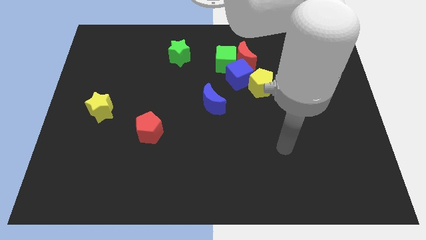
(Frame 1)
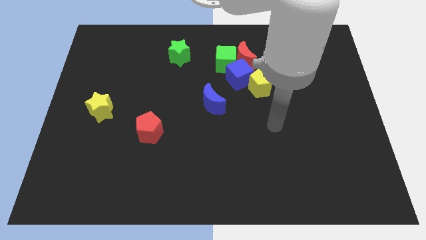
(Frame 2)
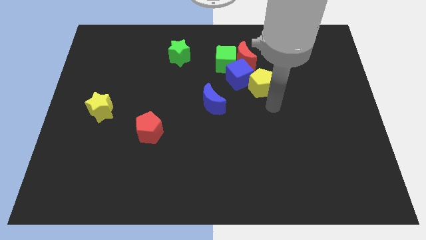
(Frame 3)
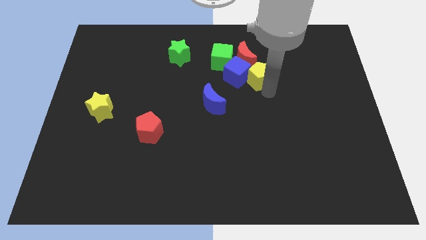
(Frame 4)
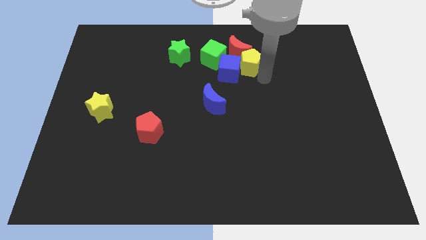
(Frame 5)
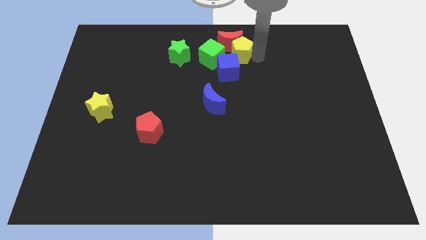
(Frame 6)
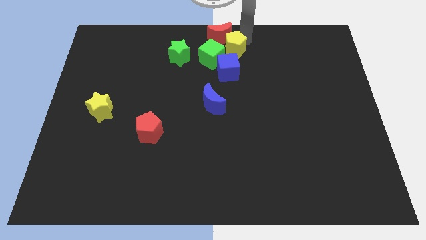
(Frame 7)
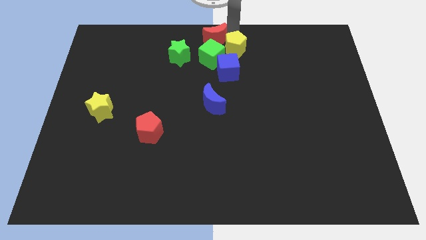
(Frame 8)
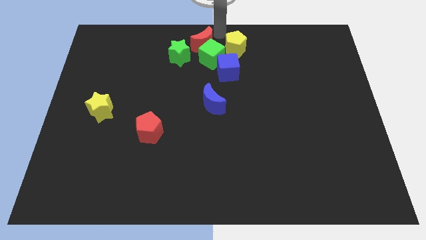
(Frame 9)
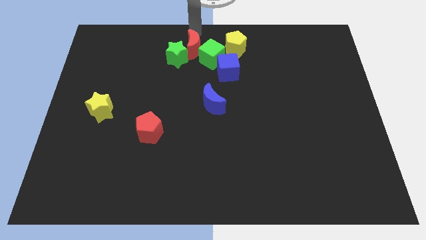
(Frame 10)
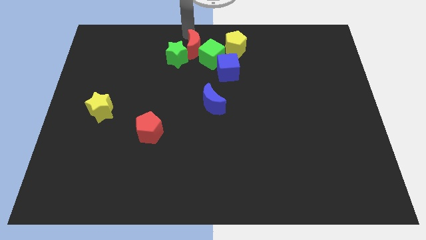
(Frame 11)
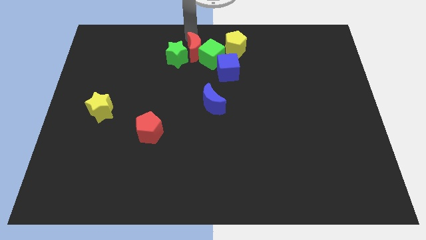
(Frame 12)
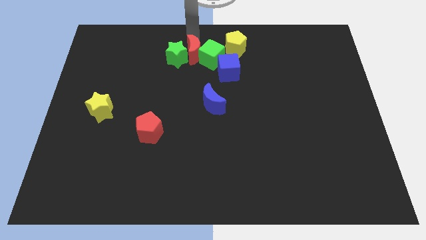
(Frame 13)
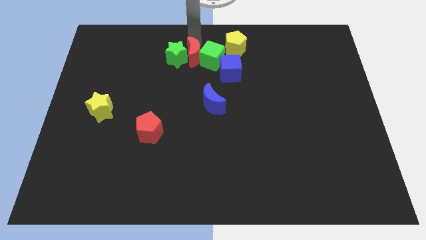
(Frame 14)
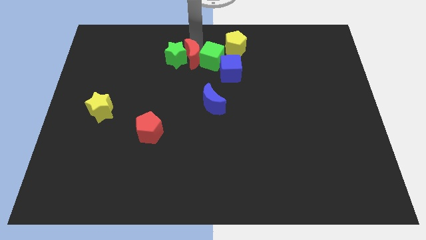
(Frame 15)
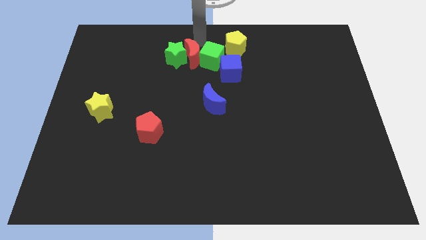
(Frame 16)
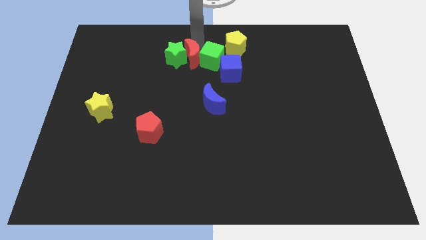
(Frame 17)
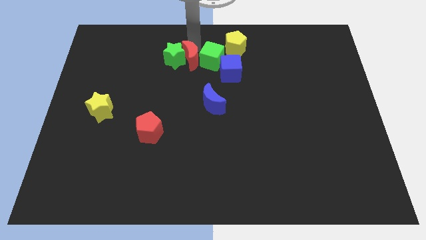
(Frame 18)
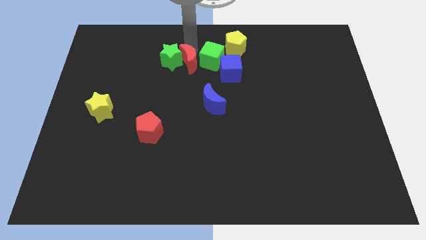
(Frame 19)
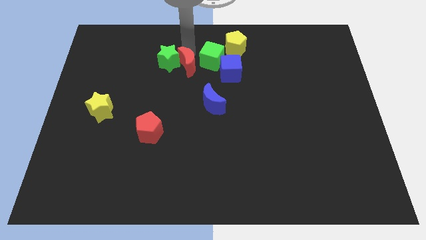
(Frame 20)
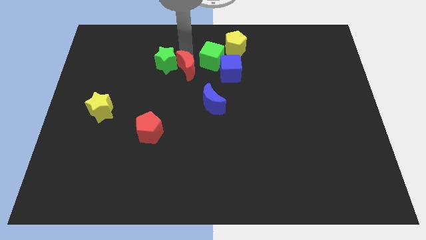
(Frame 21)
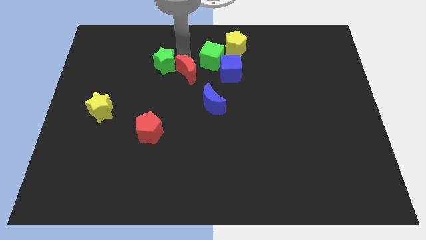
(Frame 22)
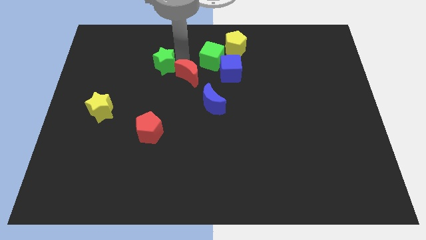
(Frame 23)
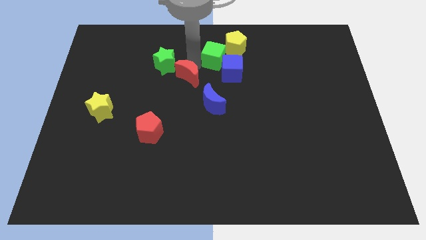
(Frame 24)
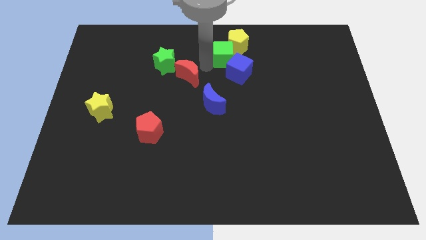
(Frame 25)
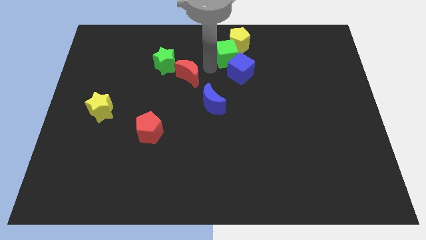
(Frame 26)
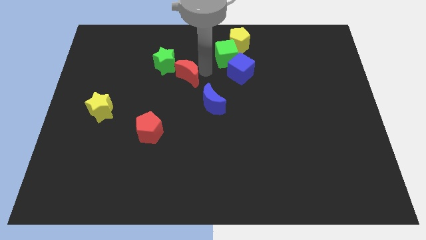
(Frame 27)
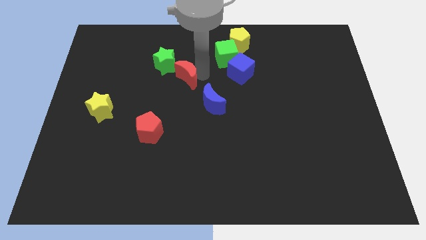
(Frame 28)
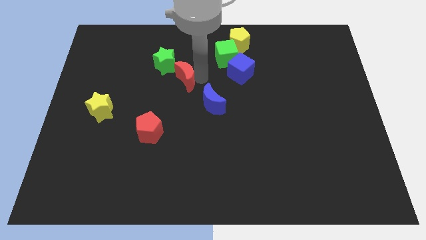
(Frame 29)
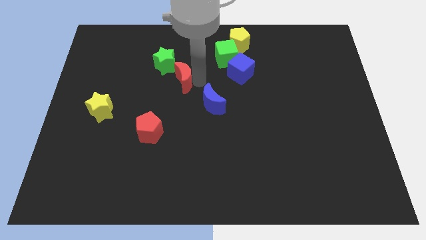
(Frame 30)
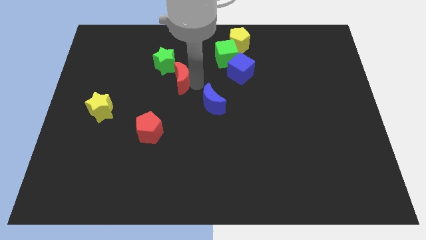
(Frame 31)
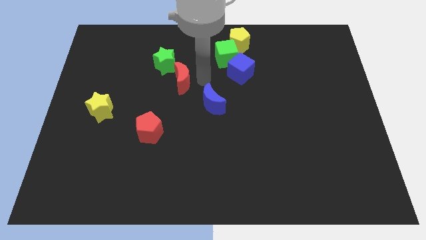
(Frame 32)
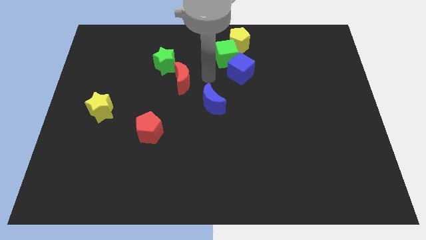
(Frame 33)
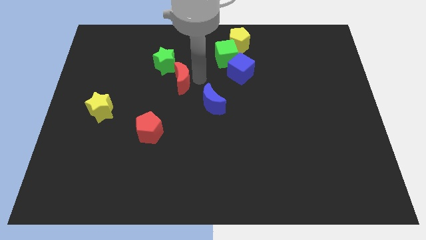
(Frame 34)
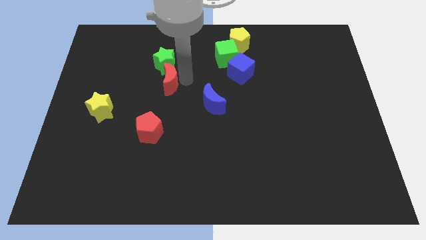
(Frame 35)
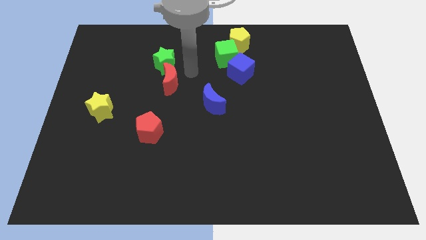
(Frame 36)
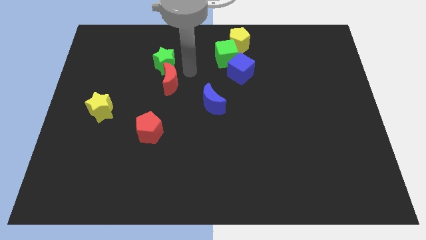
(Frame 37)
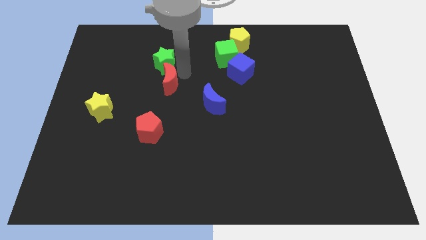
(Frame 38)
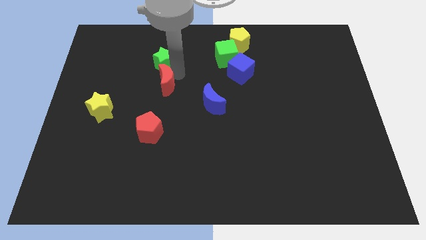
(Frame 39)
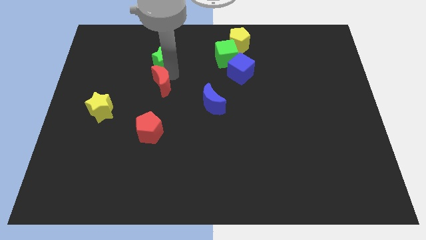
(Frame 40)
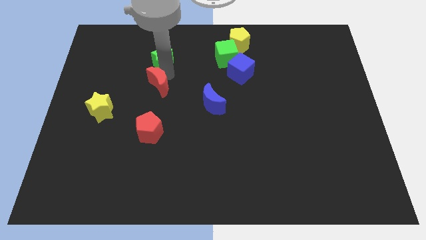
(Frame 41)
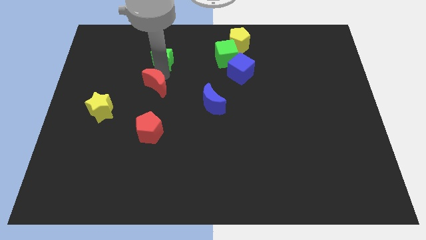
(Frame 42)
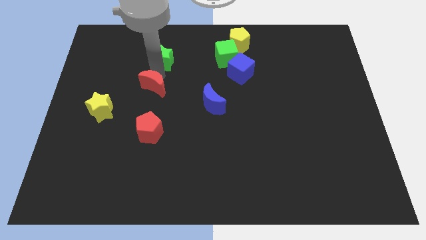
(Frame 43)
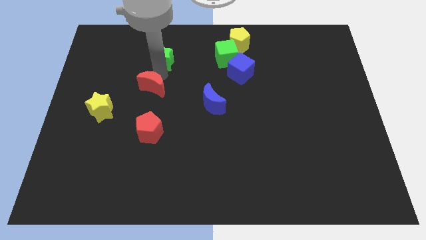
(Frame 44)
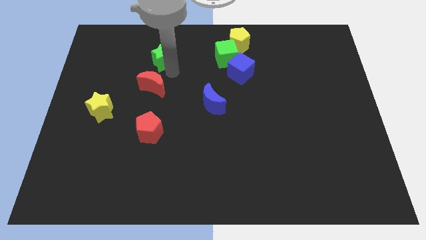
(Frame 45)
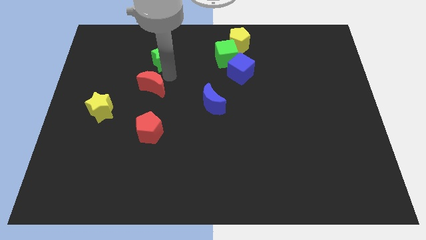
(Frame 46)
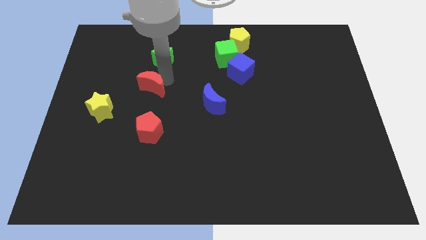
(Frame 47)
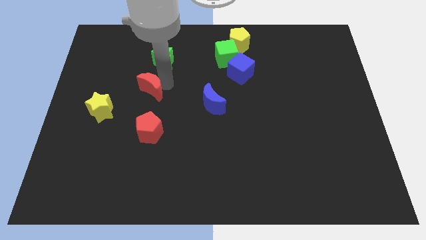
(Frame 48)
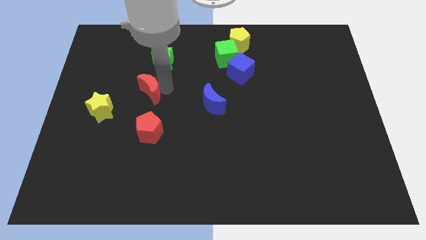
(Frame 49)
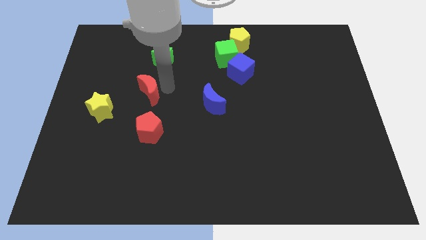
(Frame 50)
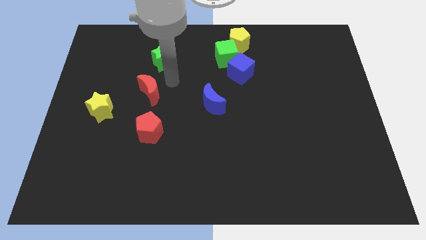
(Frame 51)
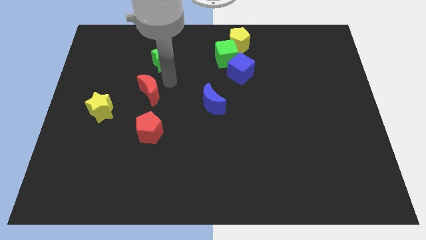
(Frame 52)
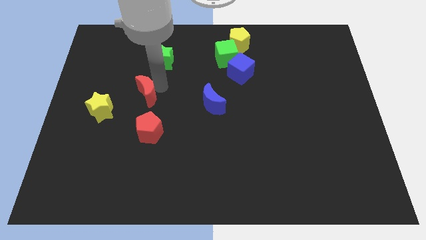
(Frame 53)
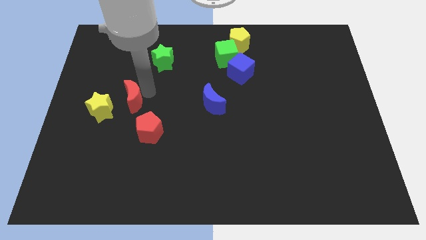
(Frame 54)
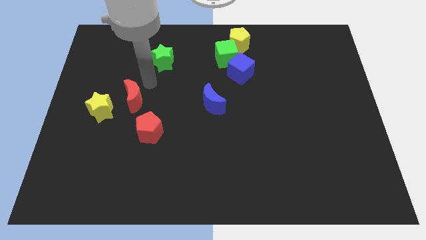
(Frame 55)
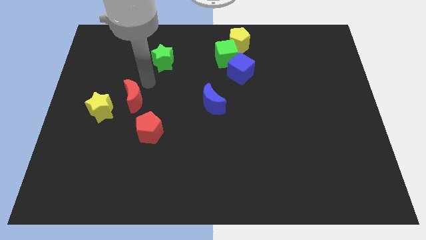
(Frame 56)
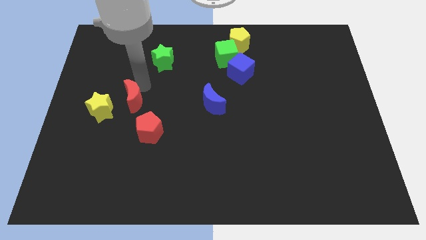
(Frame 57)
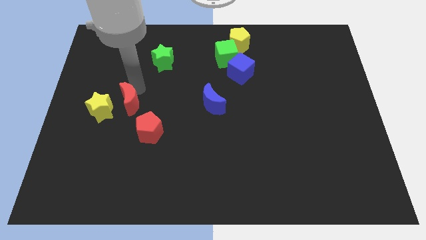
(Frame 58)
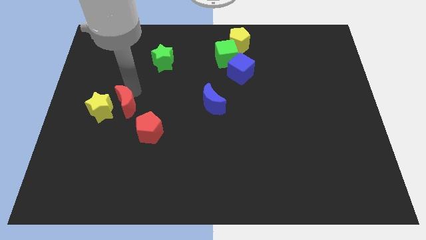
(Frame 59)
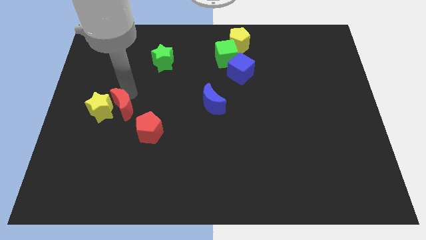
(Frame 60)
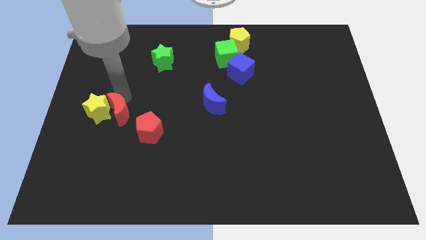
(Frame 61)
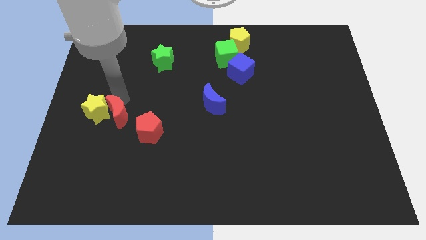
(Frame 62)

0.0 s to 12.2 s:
slide the red moon to the left of the red pentagon

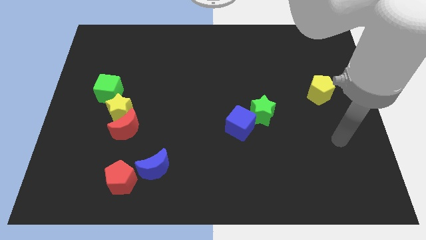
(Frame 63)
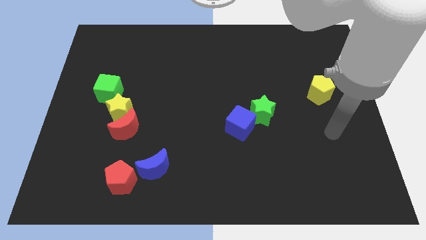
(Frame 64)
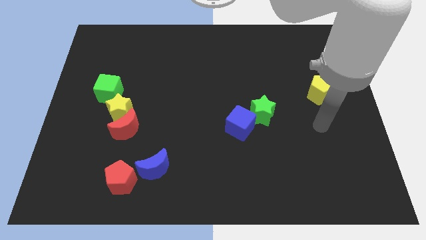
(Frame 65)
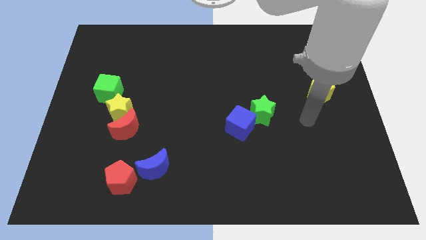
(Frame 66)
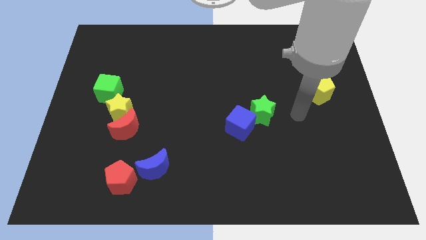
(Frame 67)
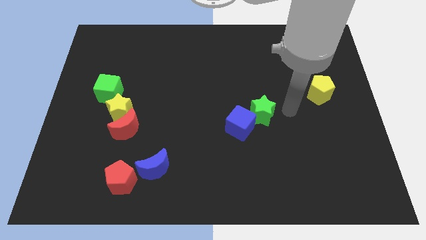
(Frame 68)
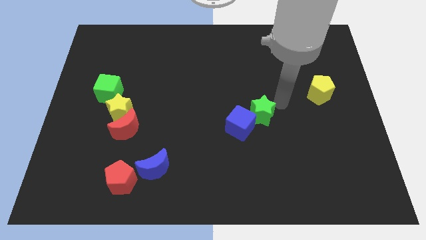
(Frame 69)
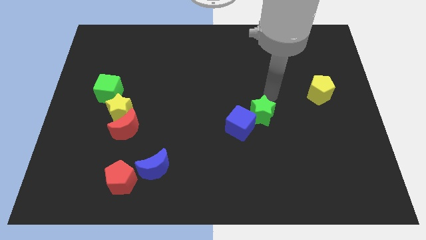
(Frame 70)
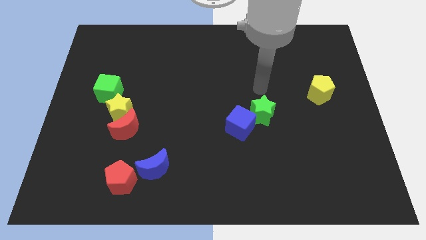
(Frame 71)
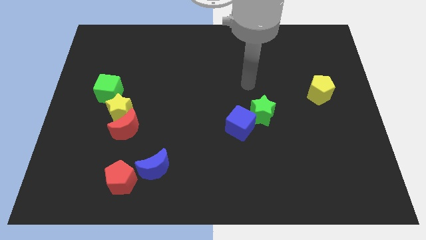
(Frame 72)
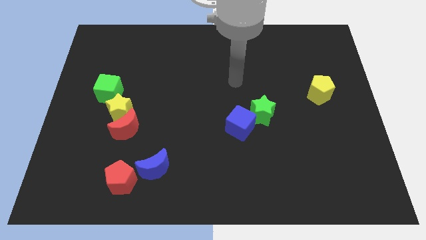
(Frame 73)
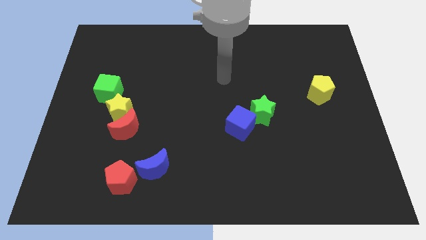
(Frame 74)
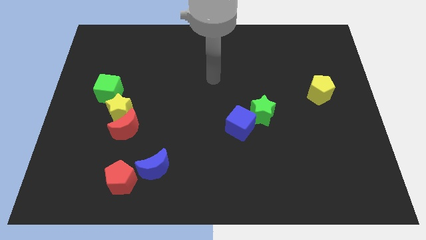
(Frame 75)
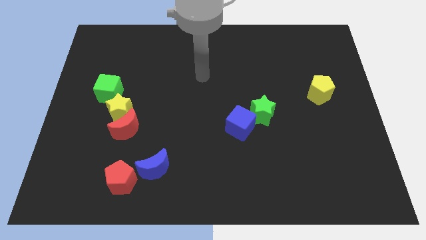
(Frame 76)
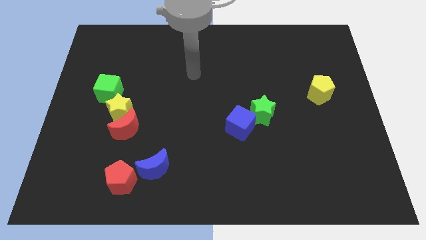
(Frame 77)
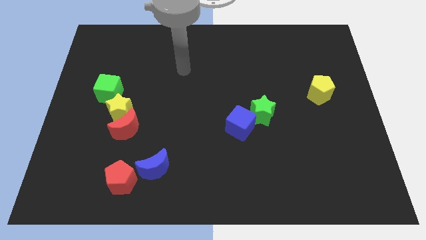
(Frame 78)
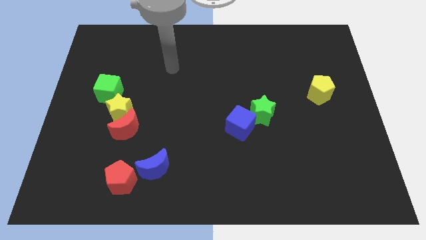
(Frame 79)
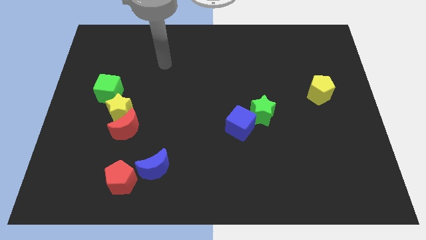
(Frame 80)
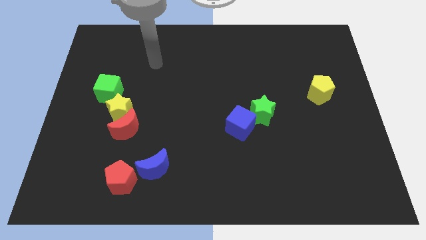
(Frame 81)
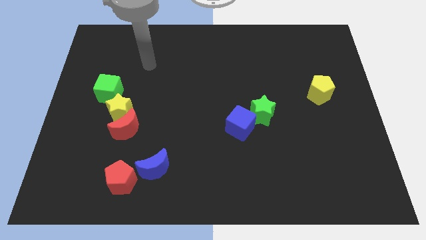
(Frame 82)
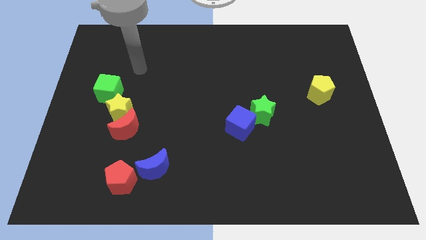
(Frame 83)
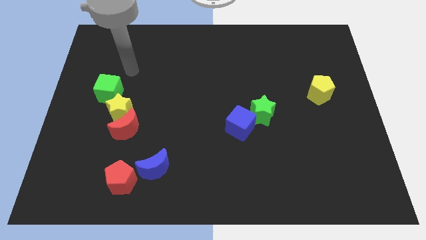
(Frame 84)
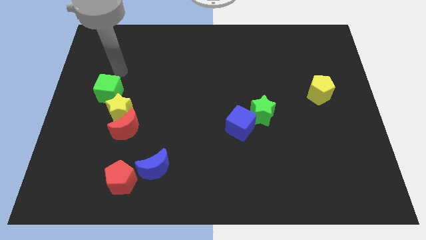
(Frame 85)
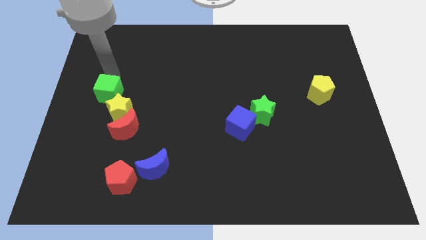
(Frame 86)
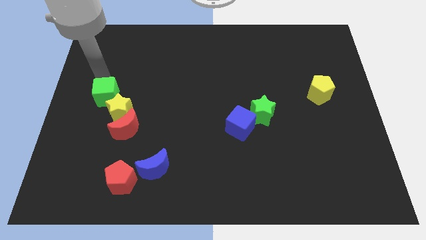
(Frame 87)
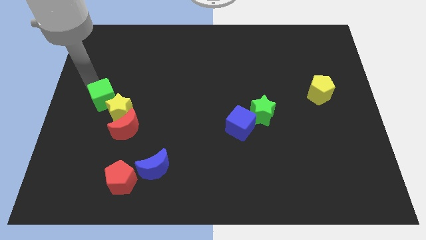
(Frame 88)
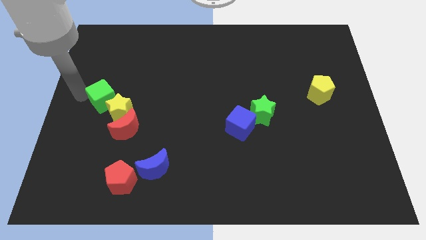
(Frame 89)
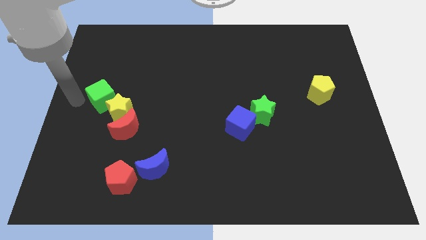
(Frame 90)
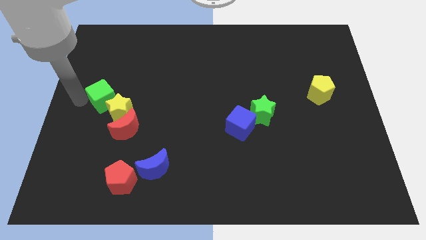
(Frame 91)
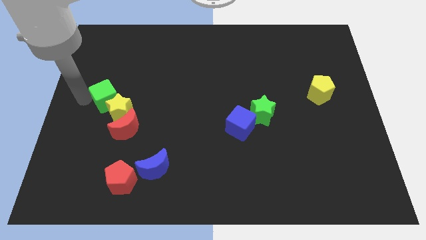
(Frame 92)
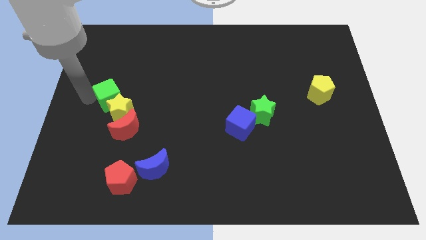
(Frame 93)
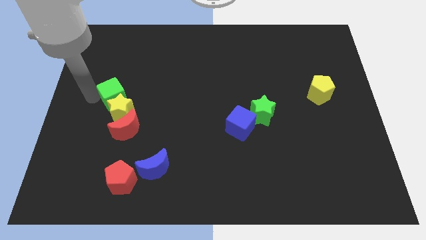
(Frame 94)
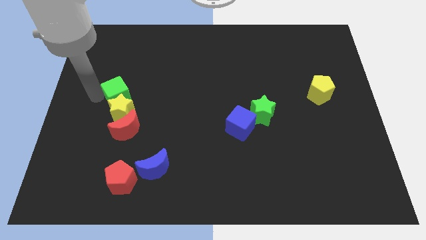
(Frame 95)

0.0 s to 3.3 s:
slide the green cube to the top right side of the yellow star
